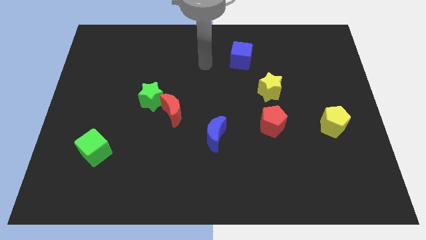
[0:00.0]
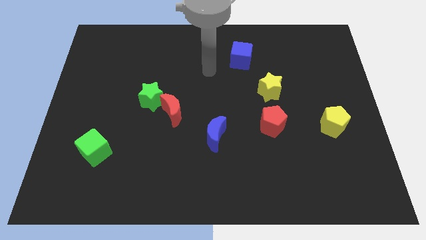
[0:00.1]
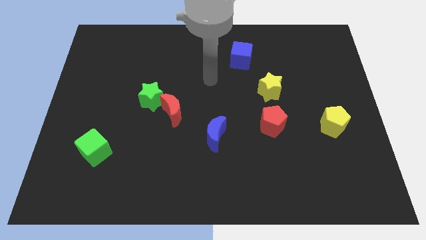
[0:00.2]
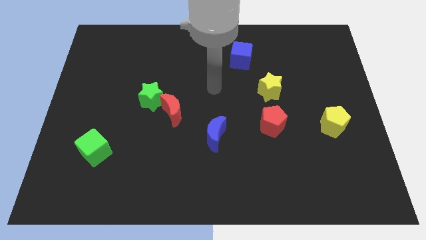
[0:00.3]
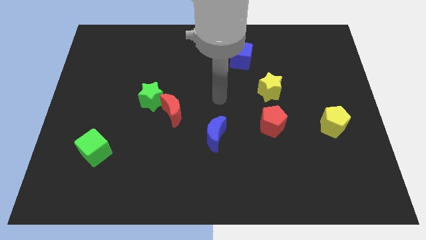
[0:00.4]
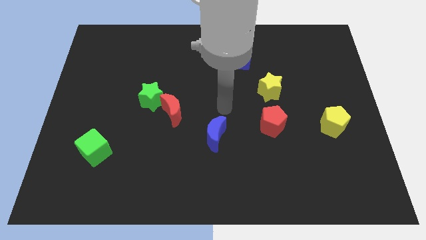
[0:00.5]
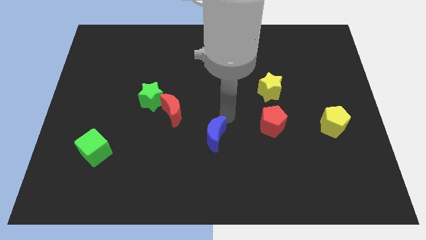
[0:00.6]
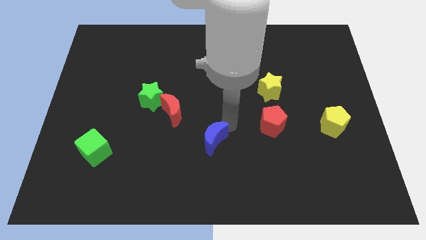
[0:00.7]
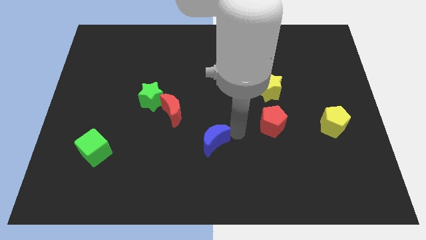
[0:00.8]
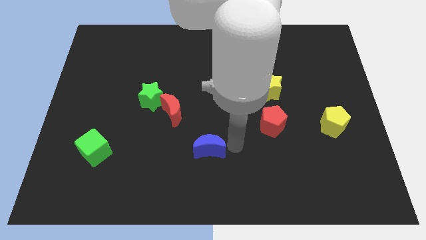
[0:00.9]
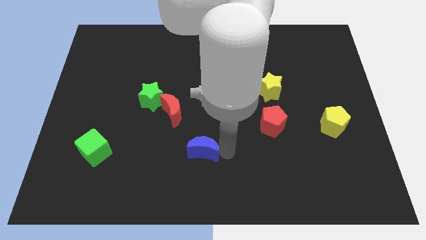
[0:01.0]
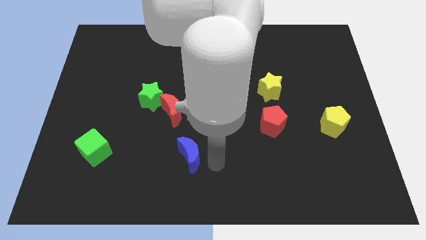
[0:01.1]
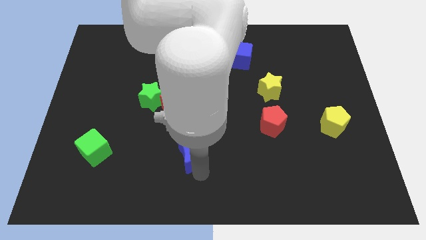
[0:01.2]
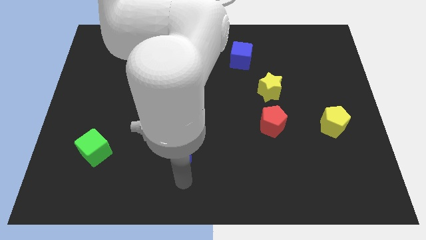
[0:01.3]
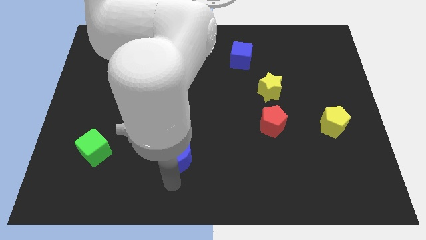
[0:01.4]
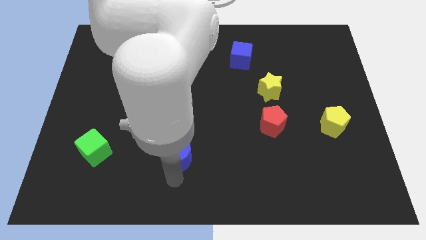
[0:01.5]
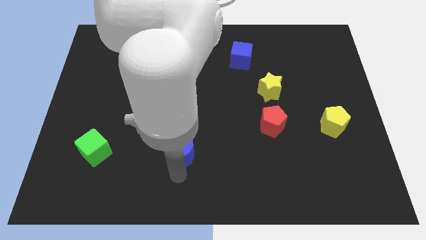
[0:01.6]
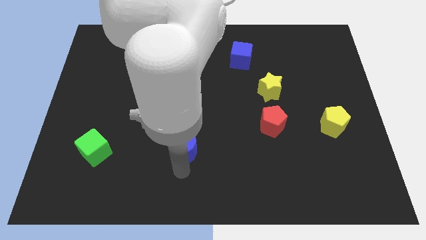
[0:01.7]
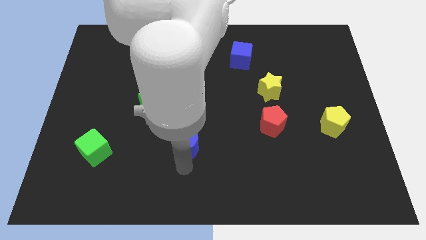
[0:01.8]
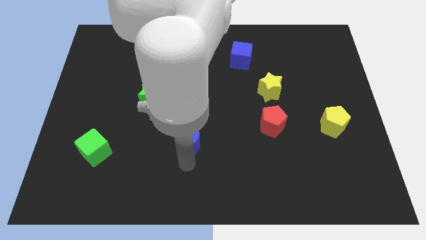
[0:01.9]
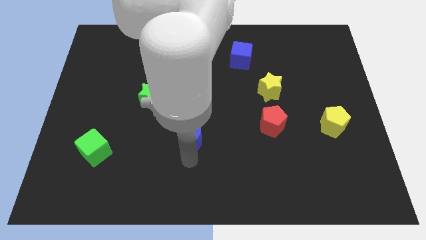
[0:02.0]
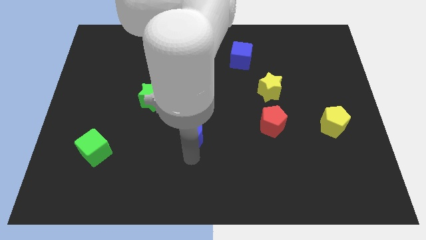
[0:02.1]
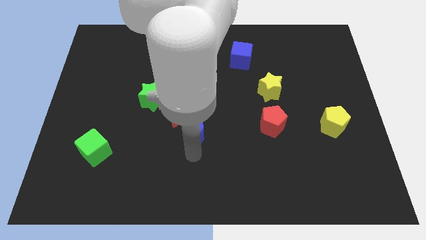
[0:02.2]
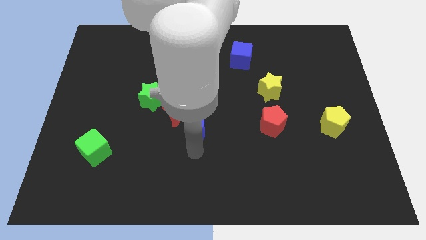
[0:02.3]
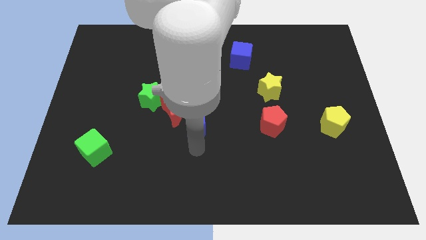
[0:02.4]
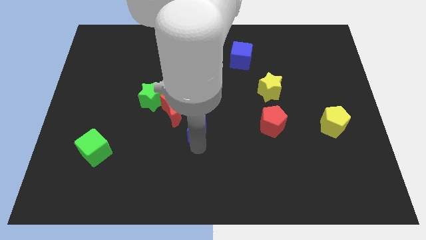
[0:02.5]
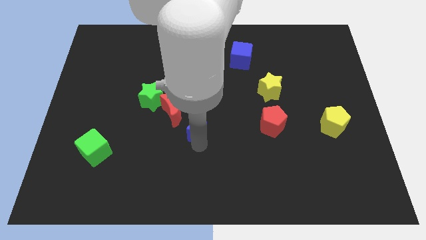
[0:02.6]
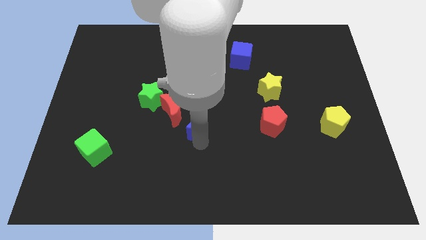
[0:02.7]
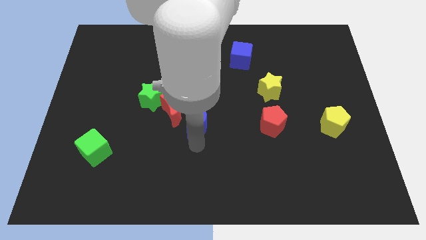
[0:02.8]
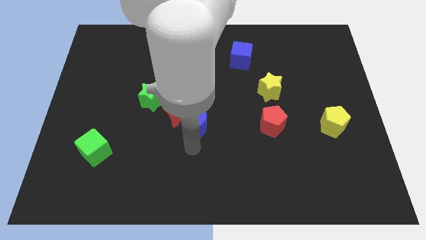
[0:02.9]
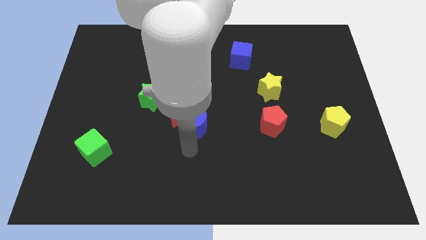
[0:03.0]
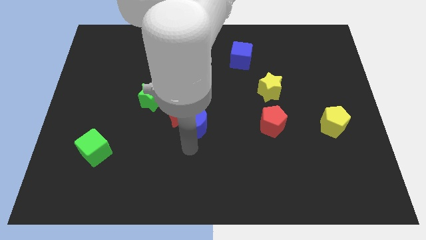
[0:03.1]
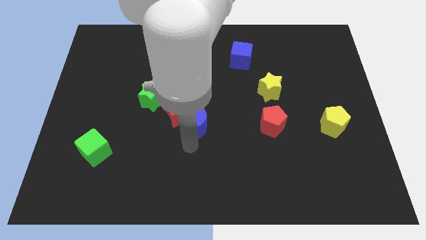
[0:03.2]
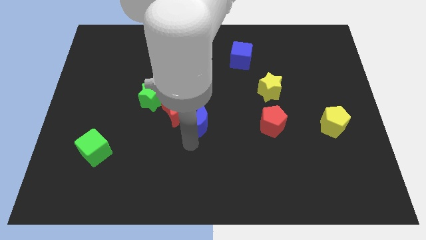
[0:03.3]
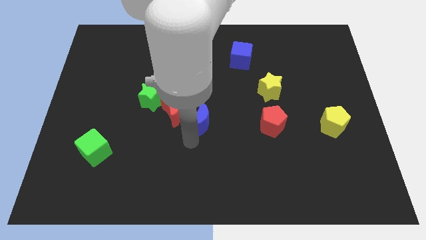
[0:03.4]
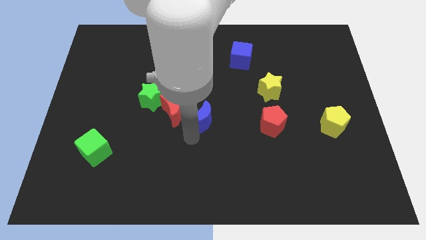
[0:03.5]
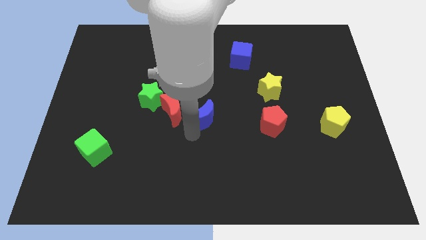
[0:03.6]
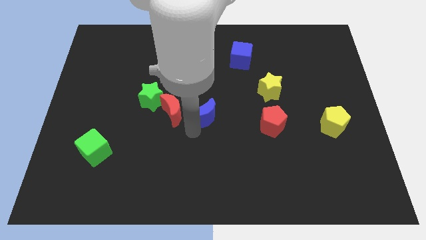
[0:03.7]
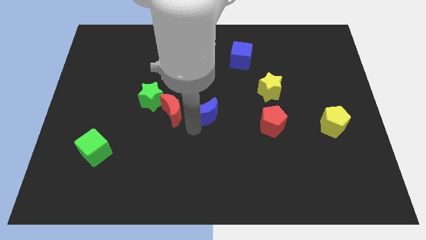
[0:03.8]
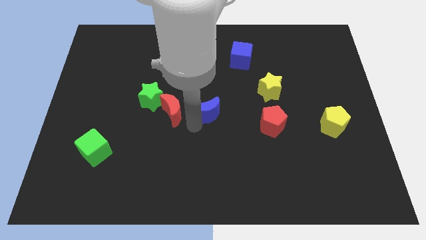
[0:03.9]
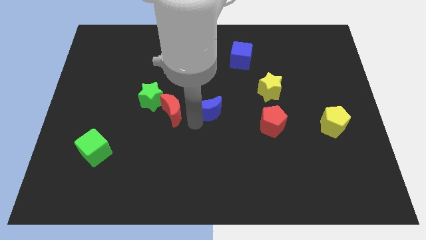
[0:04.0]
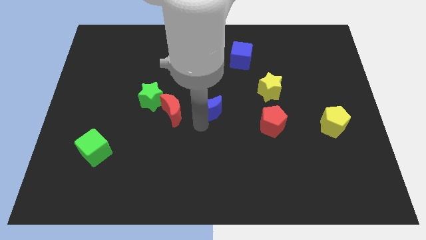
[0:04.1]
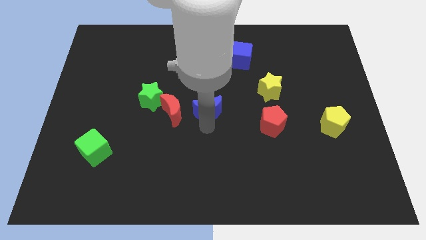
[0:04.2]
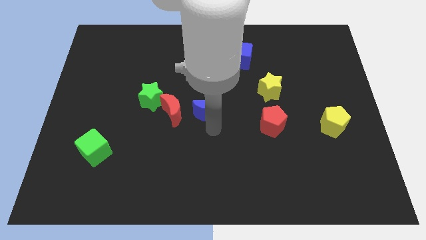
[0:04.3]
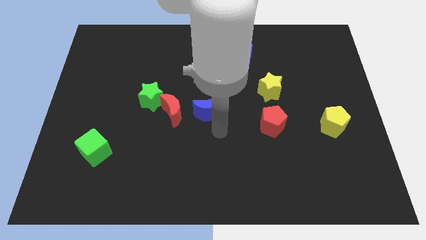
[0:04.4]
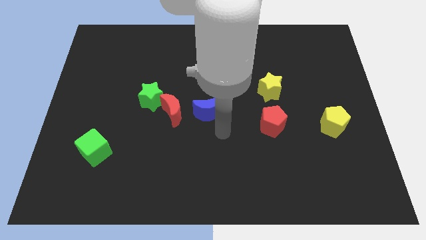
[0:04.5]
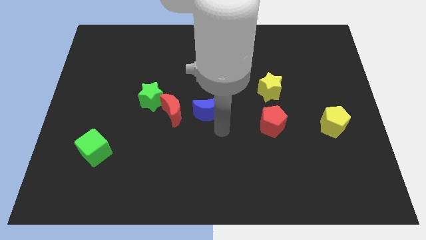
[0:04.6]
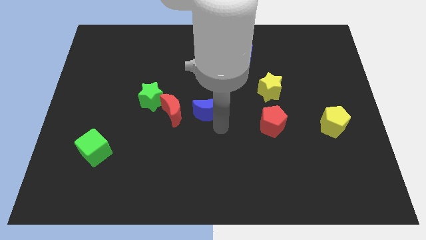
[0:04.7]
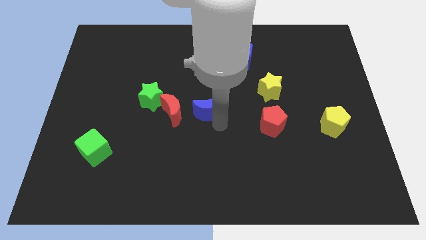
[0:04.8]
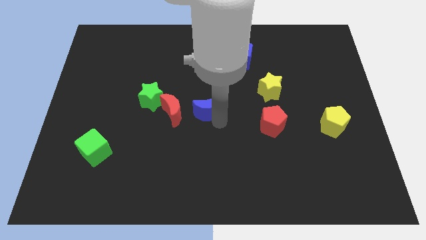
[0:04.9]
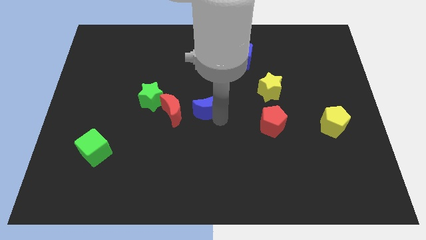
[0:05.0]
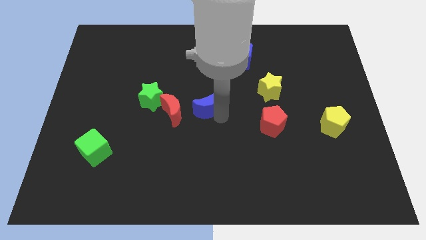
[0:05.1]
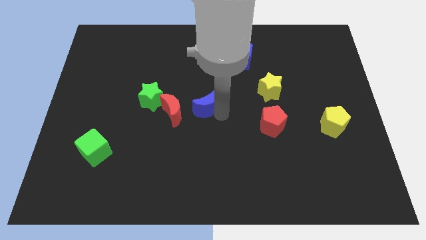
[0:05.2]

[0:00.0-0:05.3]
push the blue moon diagonally up and to the right of the red moon

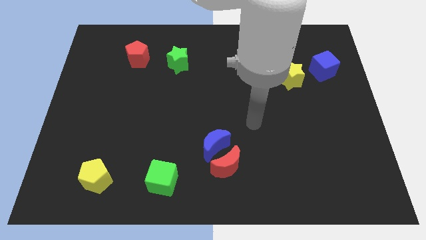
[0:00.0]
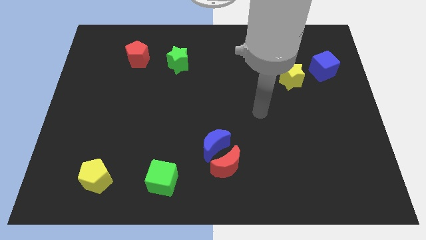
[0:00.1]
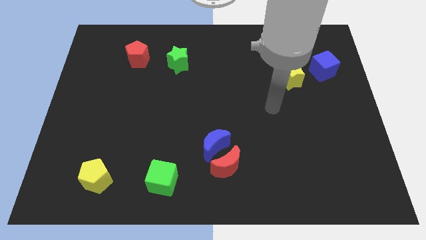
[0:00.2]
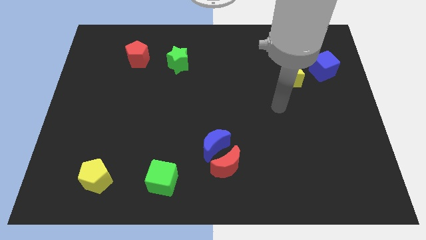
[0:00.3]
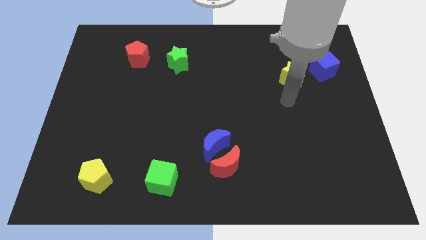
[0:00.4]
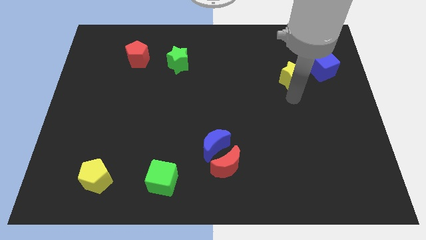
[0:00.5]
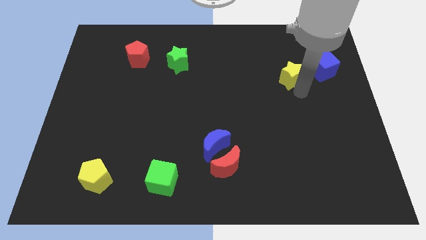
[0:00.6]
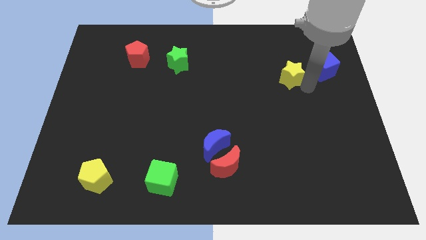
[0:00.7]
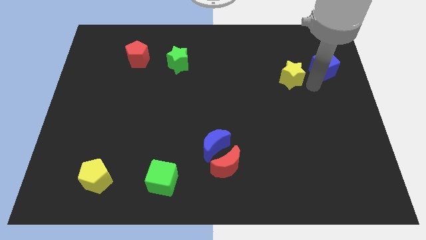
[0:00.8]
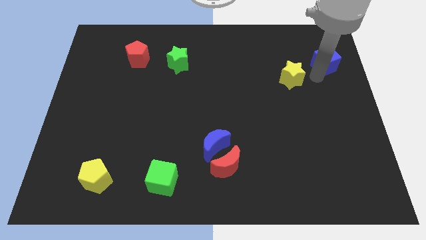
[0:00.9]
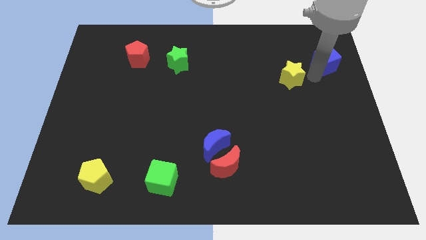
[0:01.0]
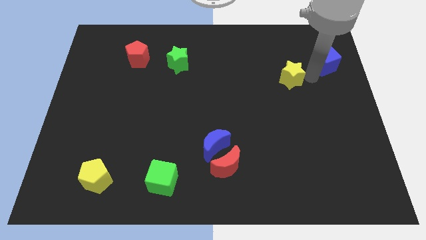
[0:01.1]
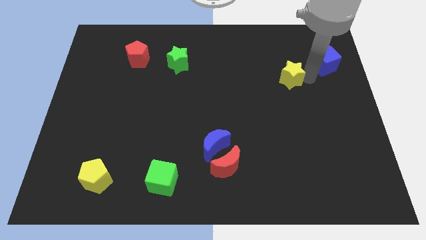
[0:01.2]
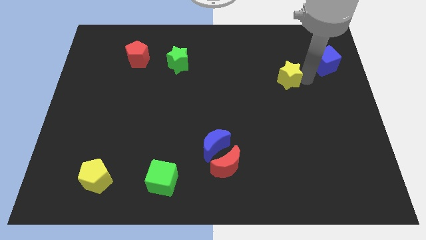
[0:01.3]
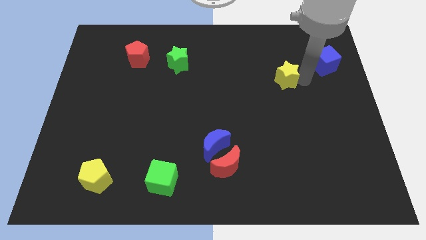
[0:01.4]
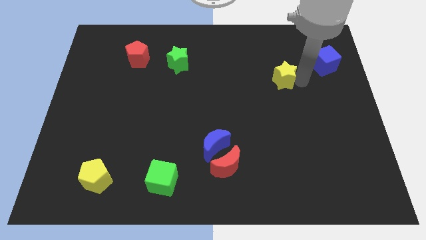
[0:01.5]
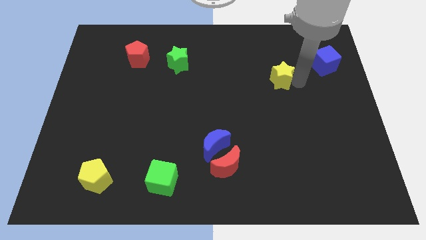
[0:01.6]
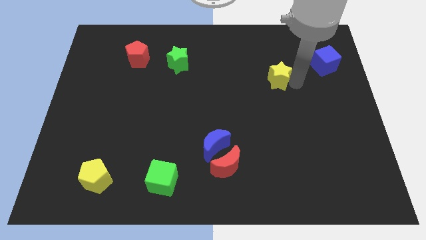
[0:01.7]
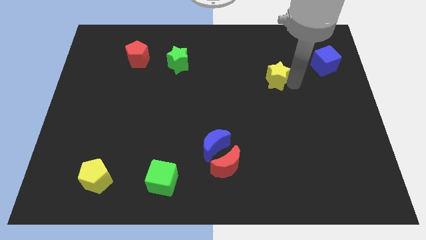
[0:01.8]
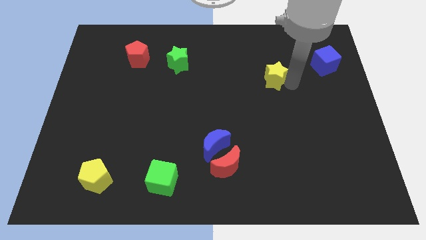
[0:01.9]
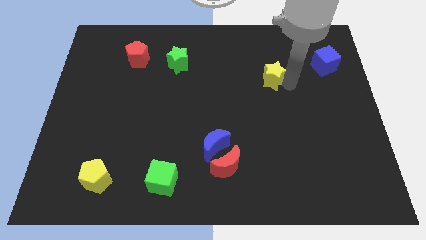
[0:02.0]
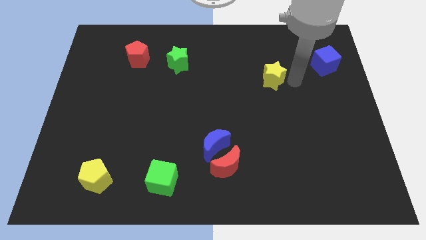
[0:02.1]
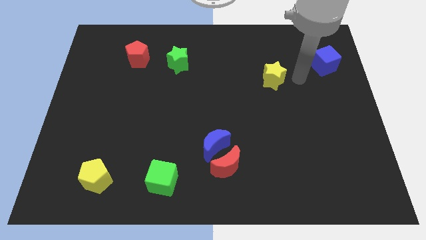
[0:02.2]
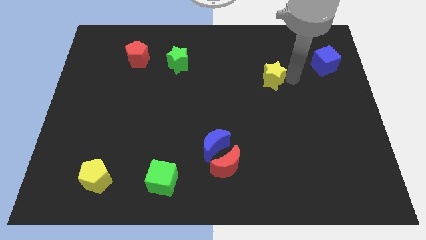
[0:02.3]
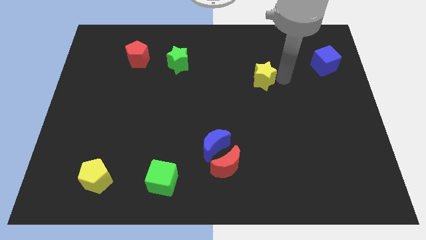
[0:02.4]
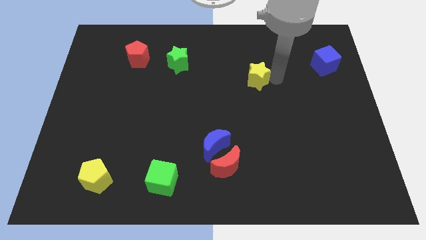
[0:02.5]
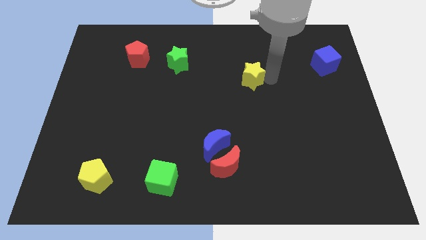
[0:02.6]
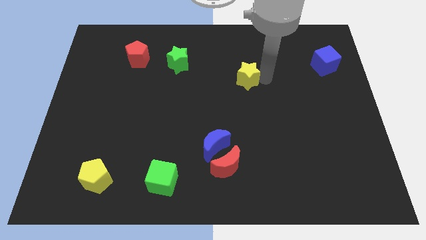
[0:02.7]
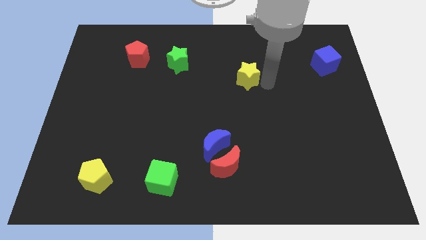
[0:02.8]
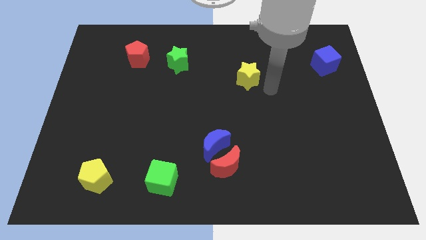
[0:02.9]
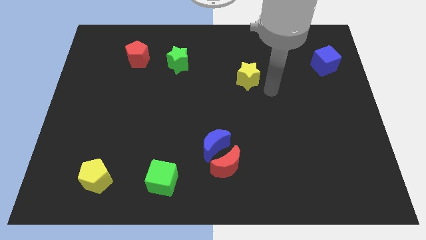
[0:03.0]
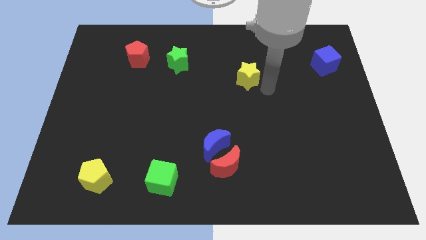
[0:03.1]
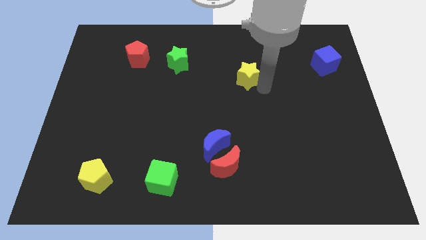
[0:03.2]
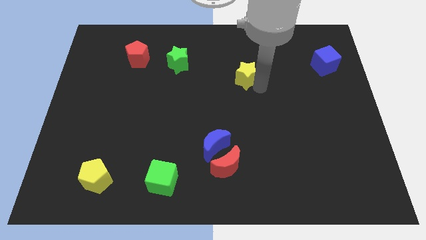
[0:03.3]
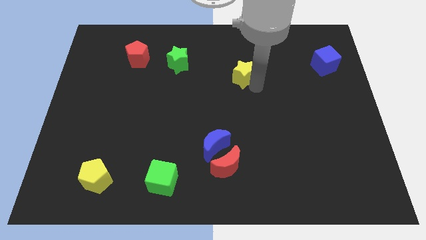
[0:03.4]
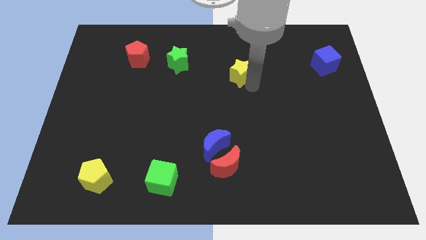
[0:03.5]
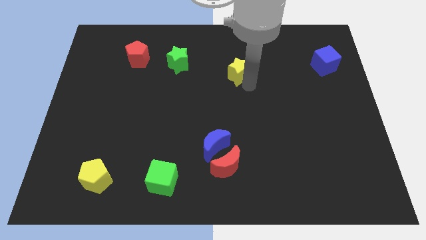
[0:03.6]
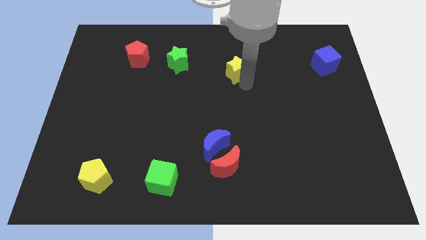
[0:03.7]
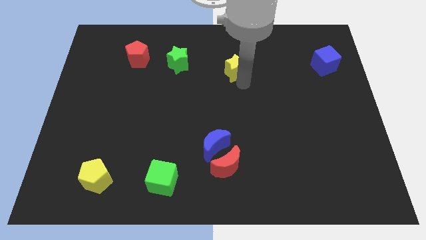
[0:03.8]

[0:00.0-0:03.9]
push the yellow star just right of the green star
